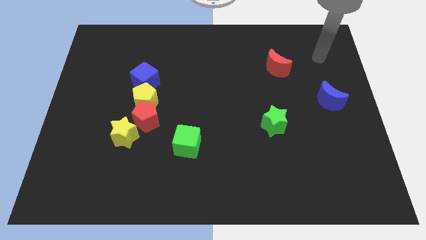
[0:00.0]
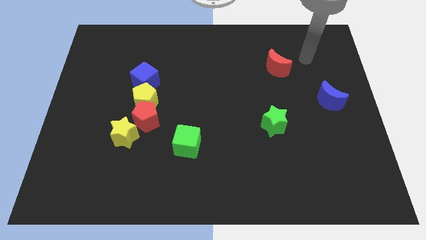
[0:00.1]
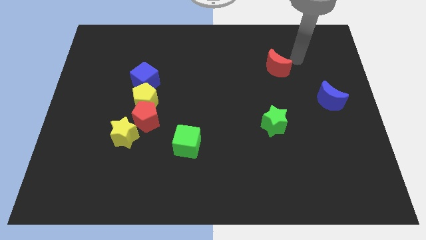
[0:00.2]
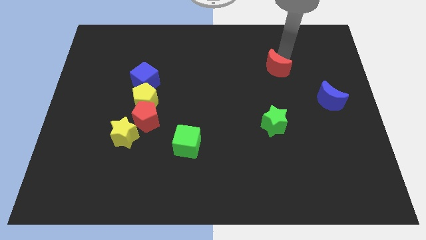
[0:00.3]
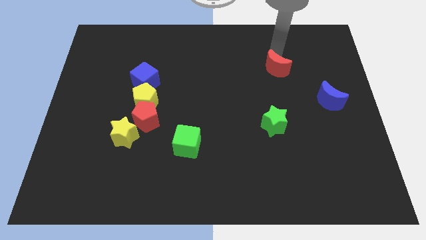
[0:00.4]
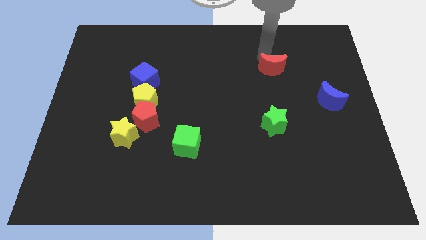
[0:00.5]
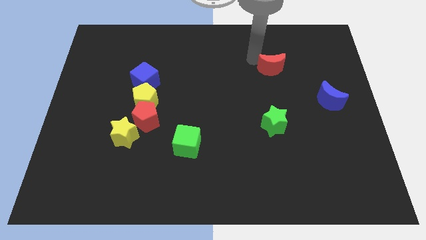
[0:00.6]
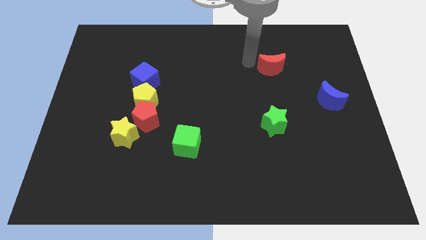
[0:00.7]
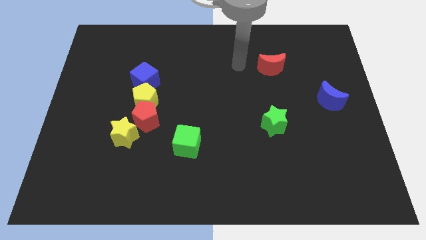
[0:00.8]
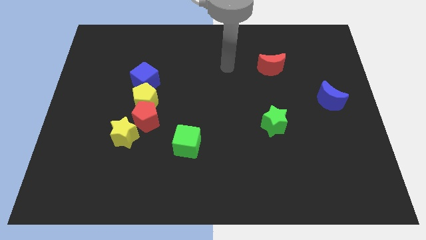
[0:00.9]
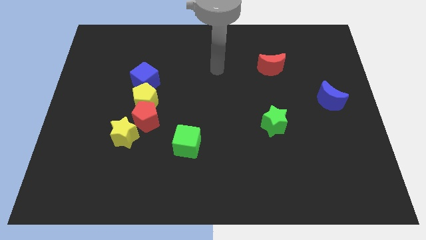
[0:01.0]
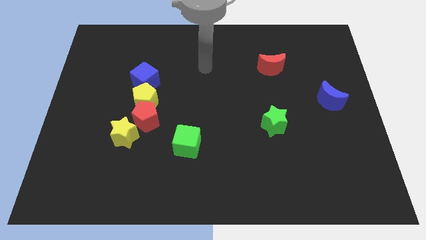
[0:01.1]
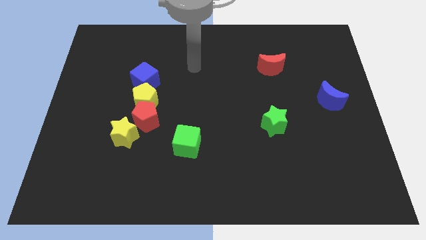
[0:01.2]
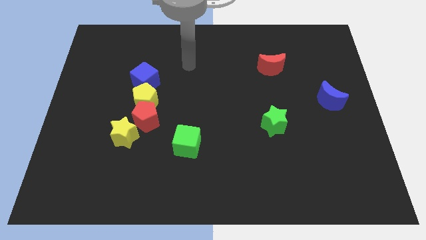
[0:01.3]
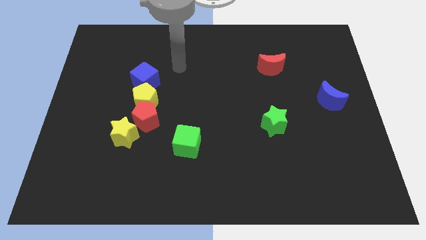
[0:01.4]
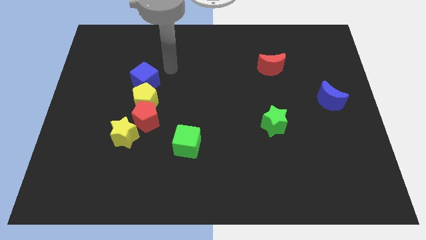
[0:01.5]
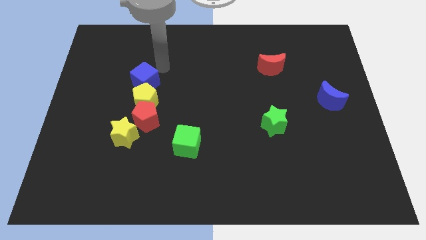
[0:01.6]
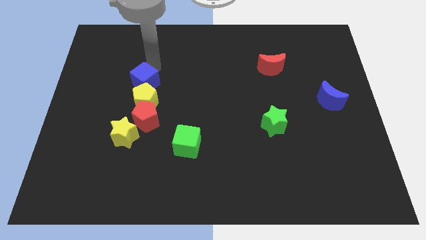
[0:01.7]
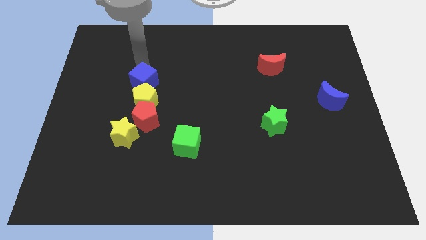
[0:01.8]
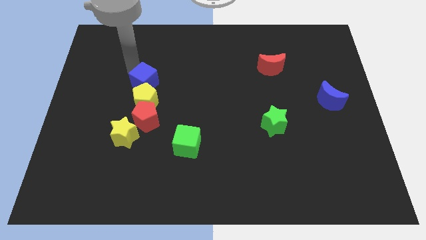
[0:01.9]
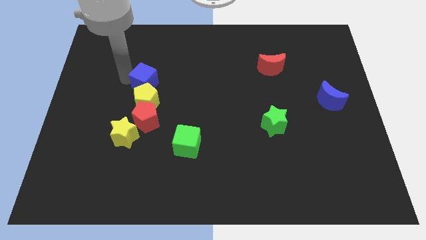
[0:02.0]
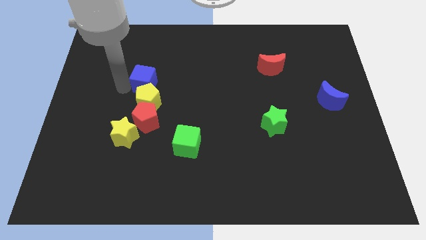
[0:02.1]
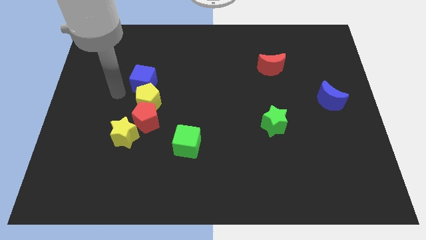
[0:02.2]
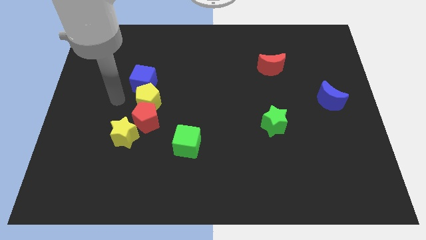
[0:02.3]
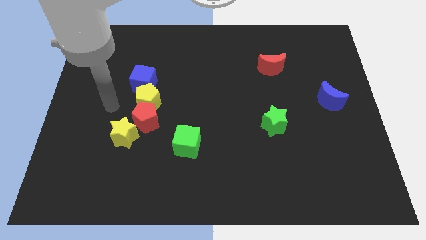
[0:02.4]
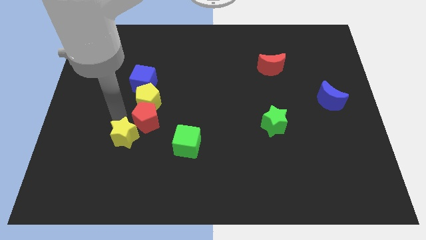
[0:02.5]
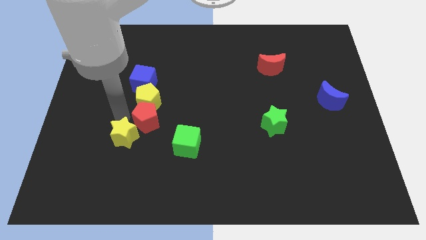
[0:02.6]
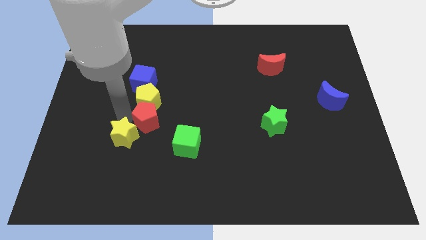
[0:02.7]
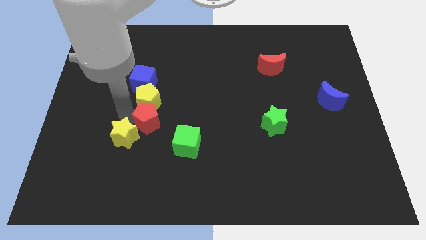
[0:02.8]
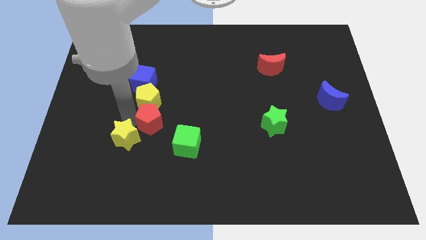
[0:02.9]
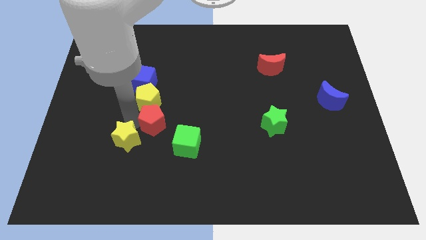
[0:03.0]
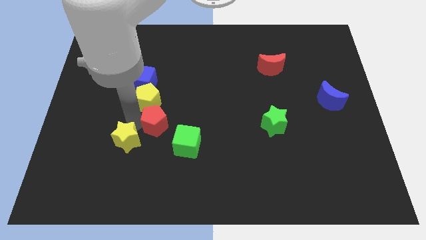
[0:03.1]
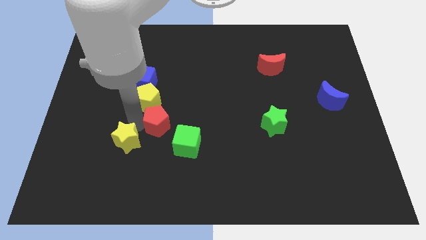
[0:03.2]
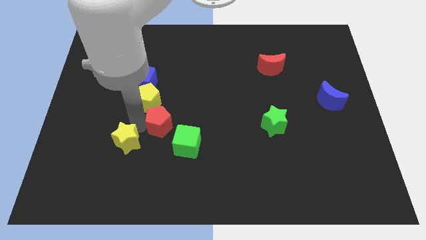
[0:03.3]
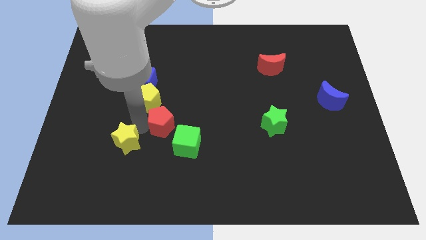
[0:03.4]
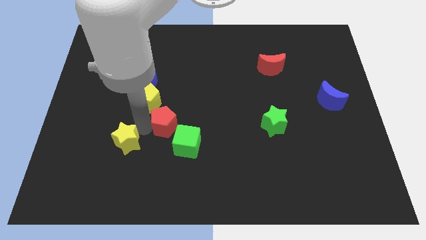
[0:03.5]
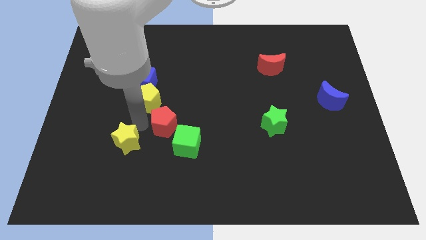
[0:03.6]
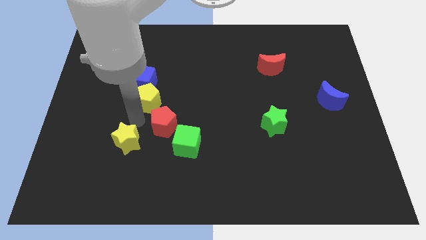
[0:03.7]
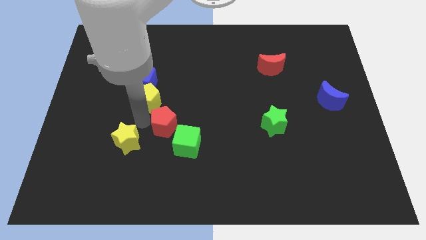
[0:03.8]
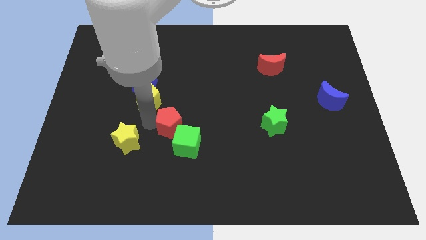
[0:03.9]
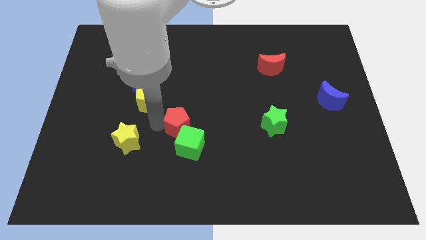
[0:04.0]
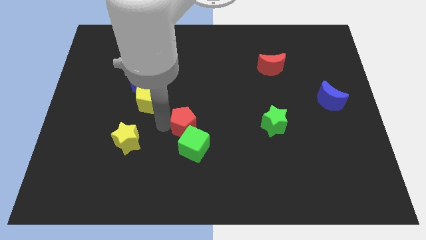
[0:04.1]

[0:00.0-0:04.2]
pull the red pentagon apart from the yellow pentagon and yellow star

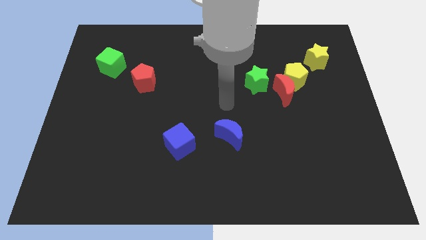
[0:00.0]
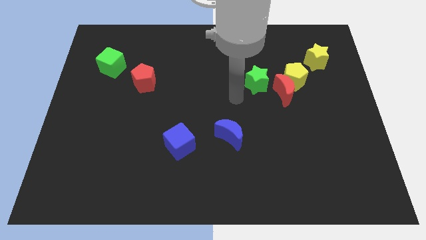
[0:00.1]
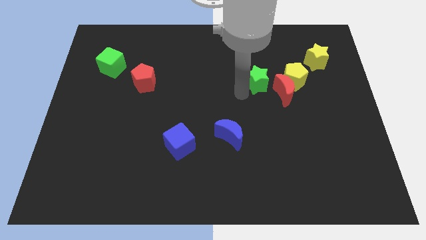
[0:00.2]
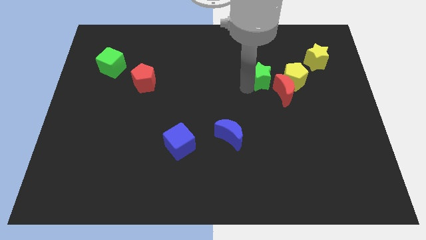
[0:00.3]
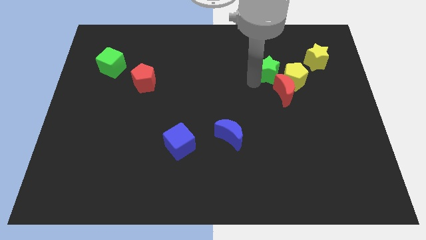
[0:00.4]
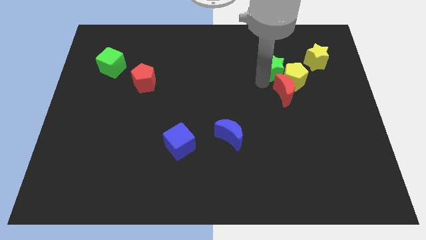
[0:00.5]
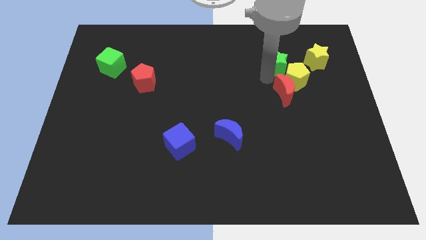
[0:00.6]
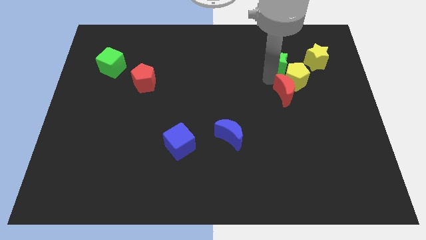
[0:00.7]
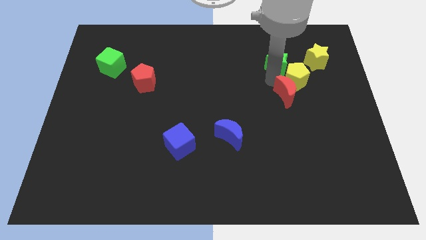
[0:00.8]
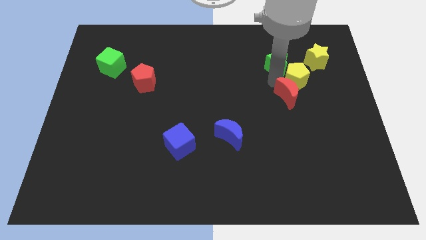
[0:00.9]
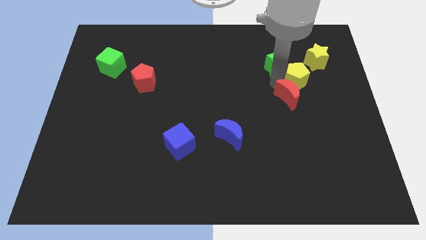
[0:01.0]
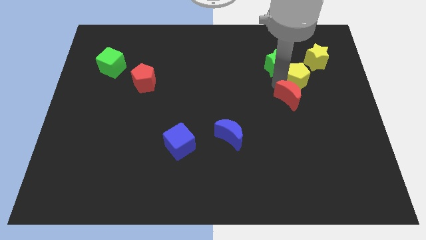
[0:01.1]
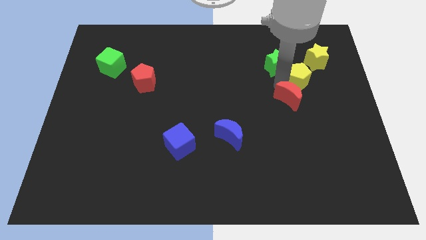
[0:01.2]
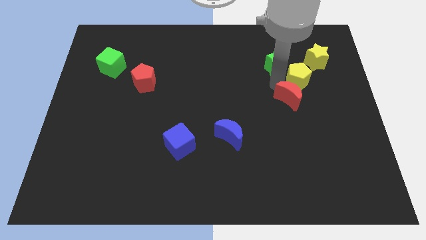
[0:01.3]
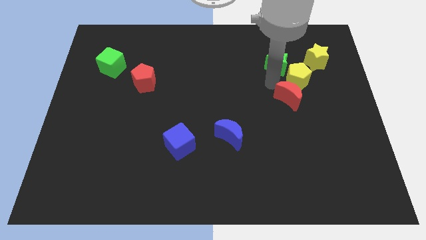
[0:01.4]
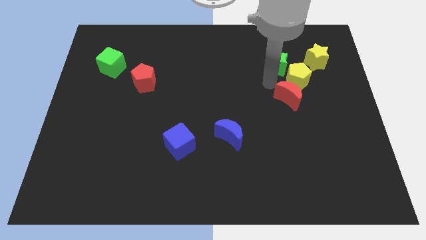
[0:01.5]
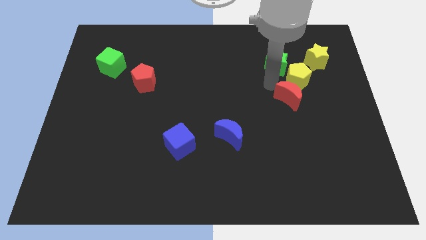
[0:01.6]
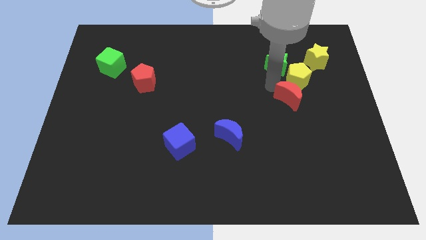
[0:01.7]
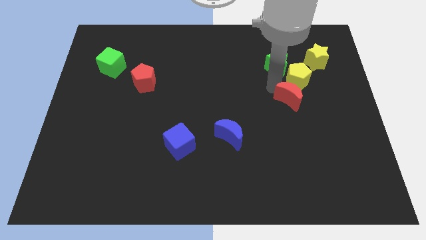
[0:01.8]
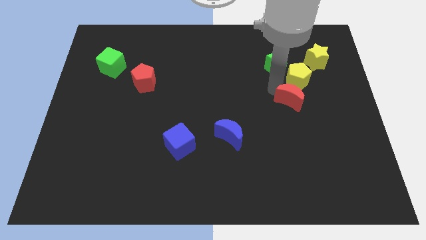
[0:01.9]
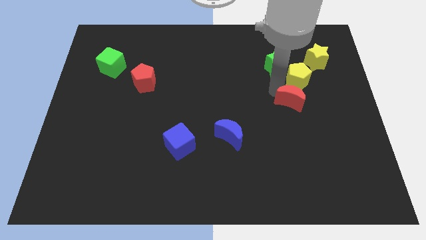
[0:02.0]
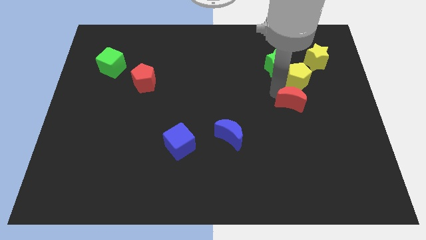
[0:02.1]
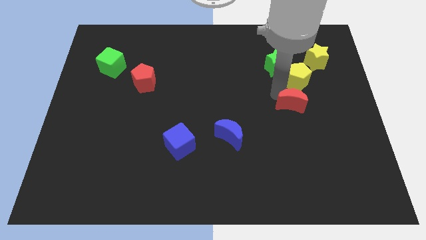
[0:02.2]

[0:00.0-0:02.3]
move the red moon away from the yellow pentagon and green star

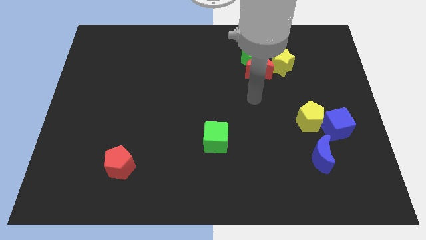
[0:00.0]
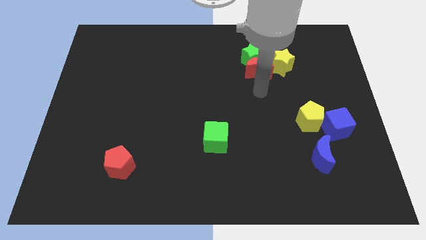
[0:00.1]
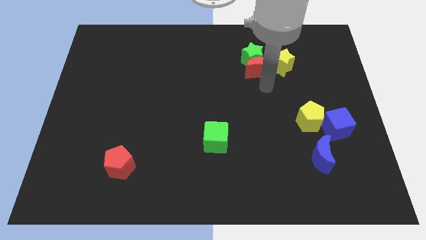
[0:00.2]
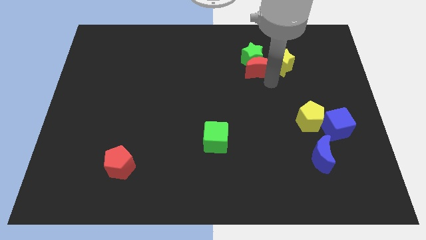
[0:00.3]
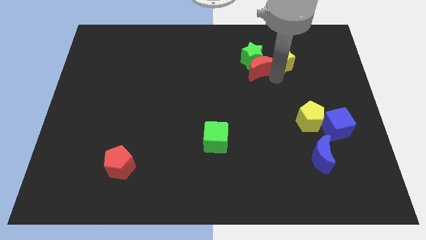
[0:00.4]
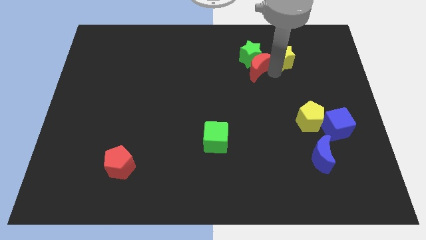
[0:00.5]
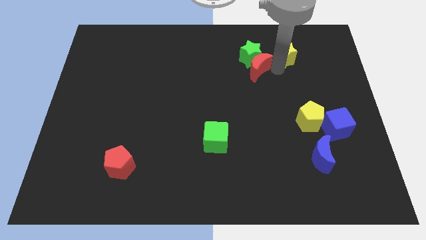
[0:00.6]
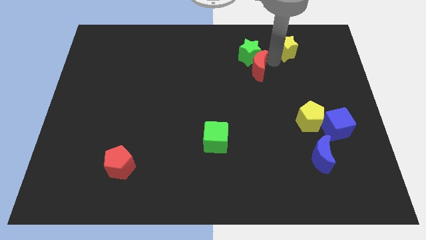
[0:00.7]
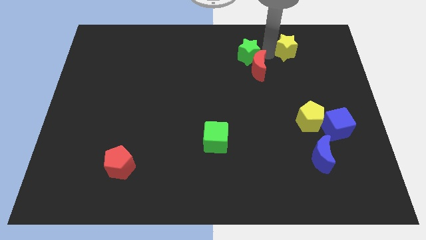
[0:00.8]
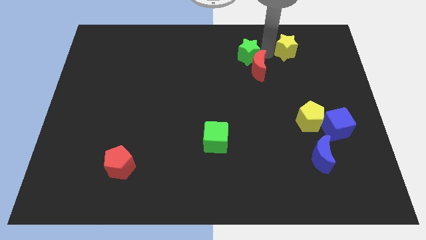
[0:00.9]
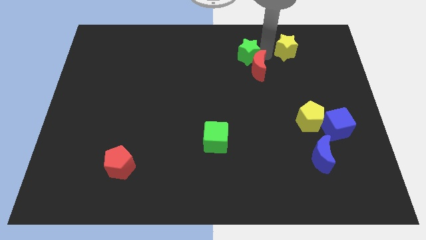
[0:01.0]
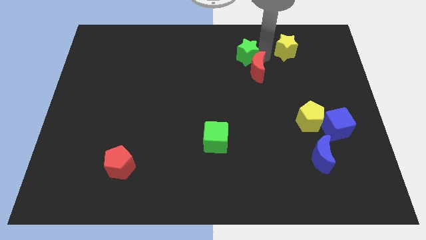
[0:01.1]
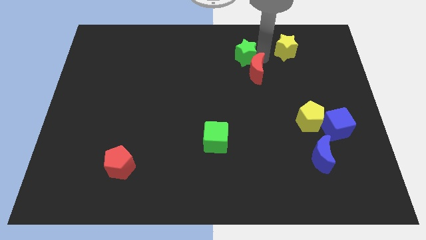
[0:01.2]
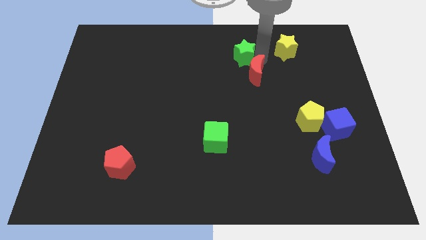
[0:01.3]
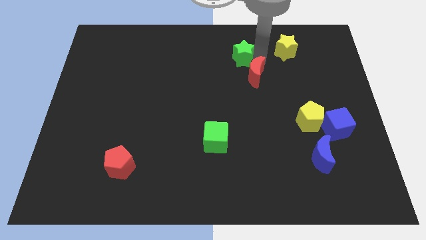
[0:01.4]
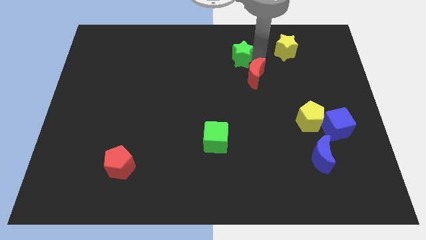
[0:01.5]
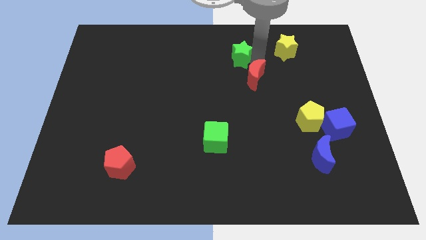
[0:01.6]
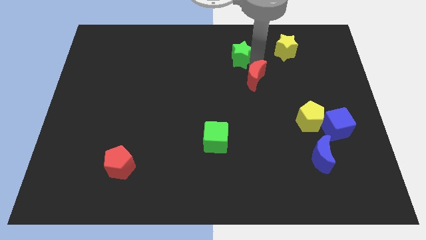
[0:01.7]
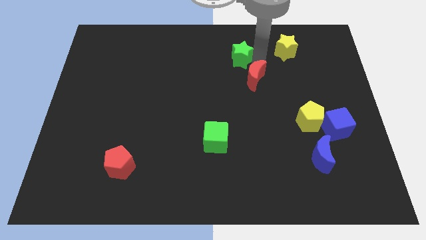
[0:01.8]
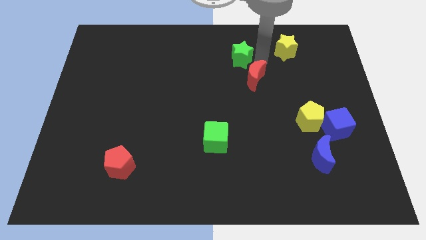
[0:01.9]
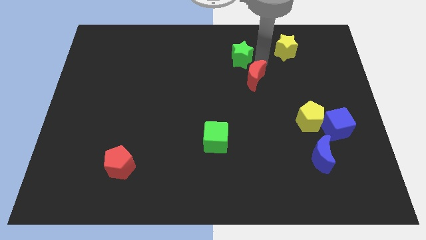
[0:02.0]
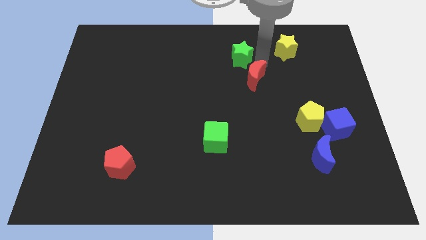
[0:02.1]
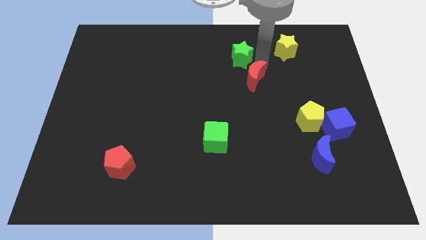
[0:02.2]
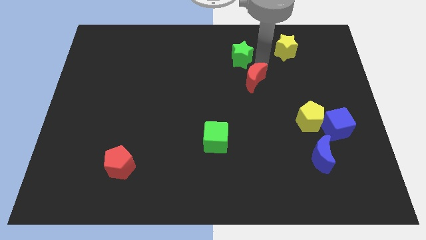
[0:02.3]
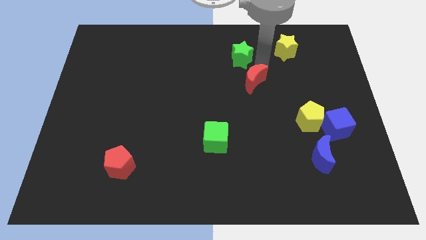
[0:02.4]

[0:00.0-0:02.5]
separate the red moon from the green star and yellow star

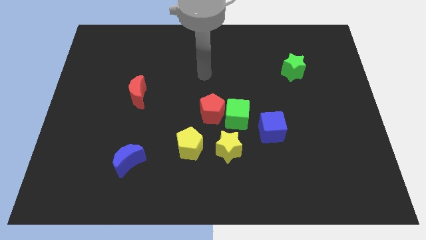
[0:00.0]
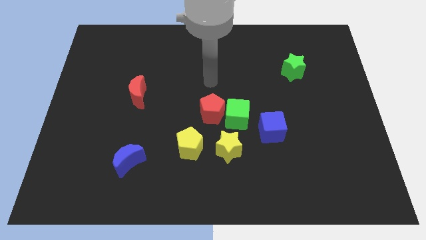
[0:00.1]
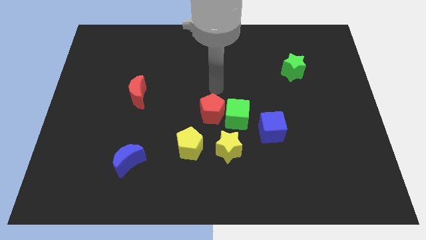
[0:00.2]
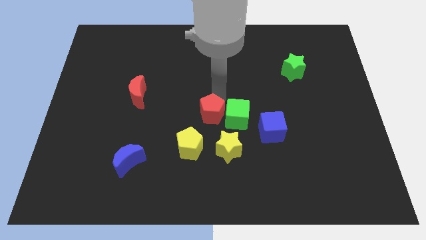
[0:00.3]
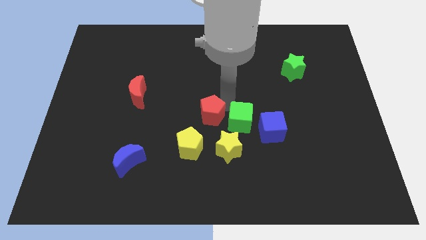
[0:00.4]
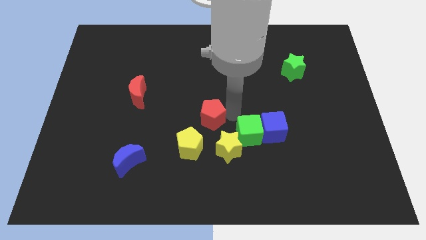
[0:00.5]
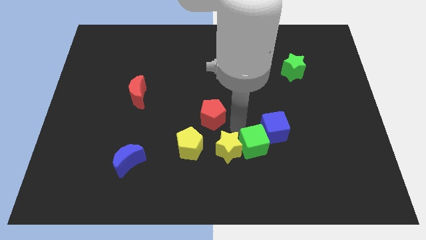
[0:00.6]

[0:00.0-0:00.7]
pull the red pentagon apart from the green cube
